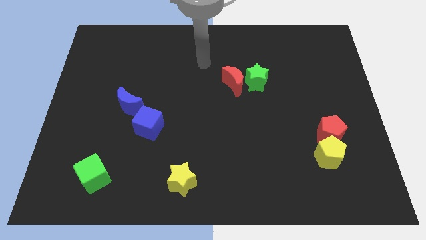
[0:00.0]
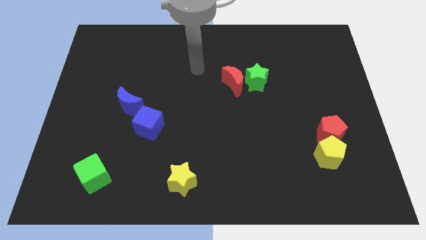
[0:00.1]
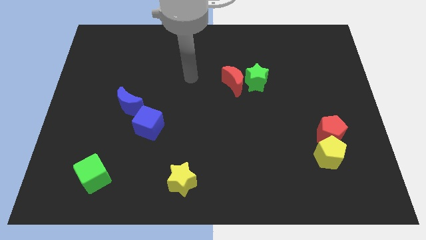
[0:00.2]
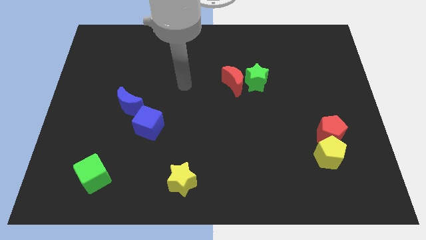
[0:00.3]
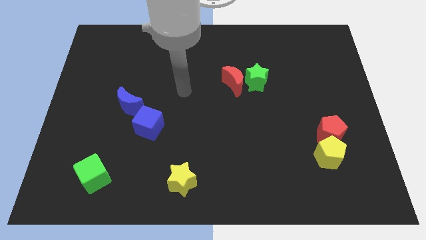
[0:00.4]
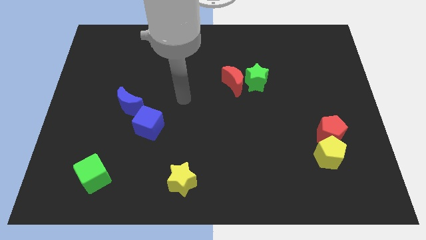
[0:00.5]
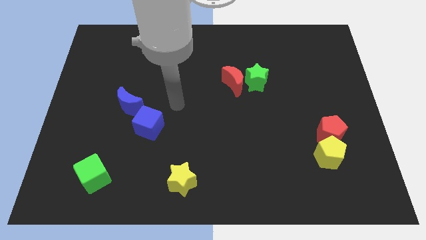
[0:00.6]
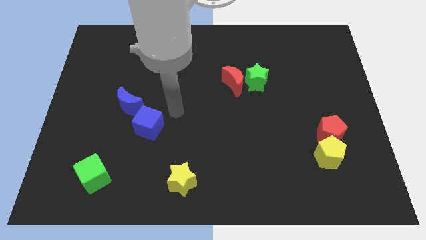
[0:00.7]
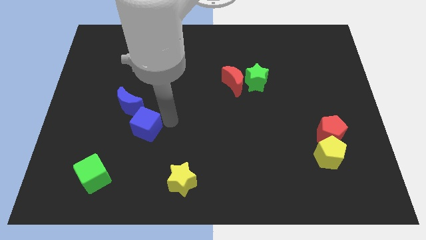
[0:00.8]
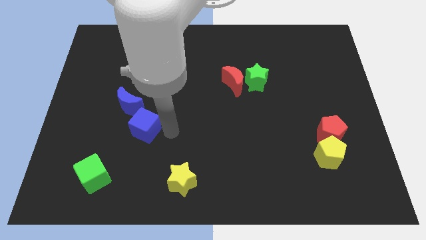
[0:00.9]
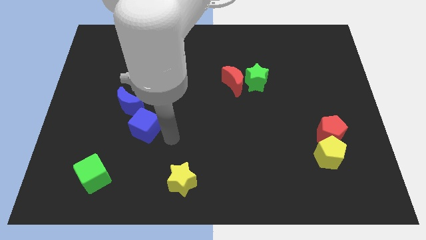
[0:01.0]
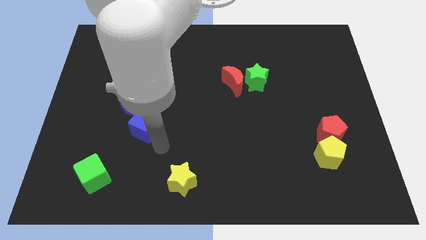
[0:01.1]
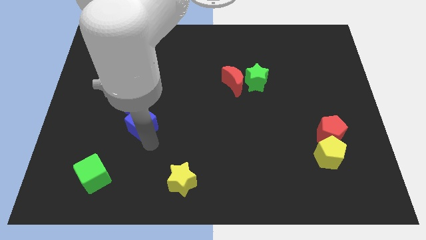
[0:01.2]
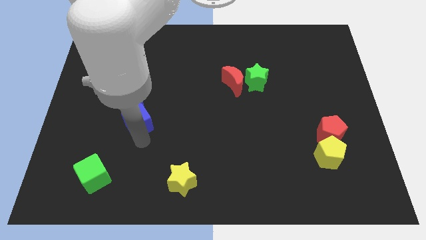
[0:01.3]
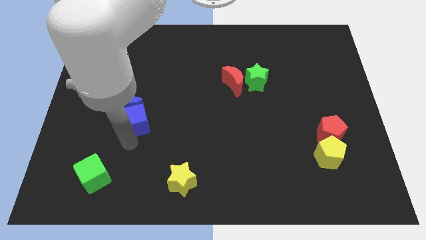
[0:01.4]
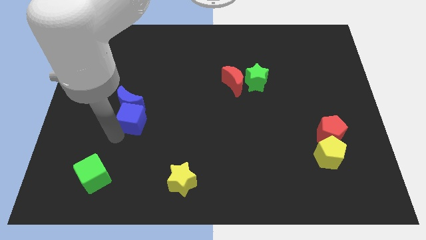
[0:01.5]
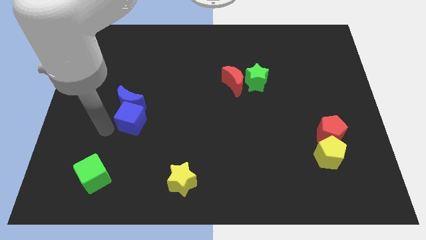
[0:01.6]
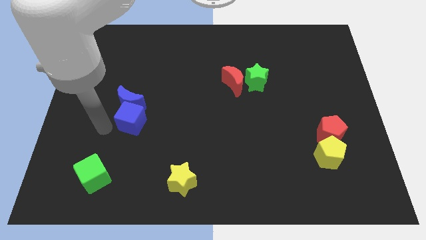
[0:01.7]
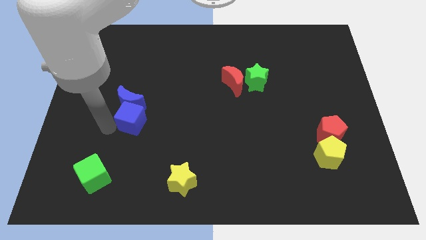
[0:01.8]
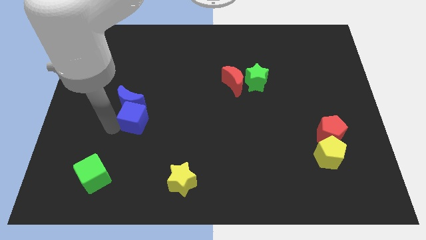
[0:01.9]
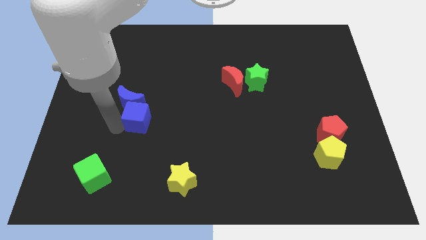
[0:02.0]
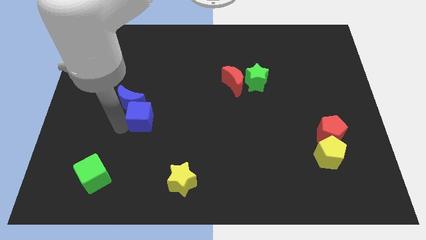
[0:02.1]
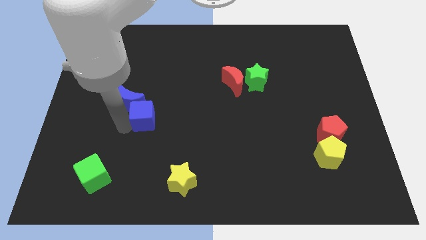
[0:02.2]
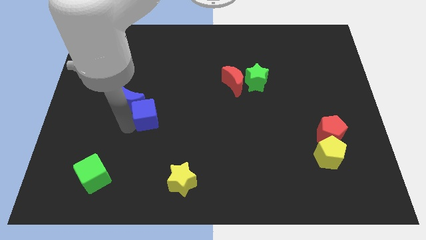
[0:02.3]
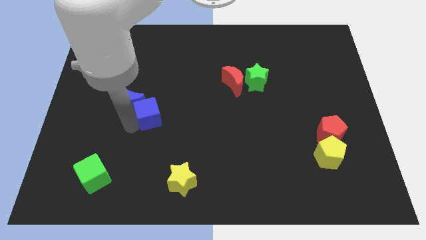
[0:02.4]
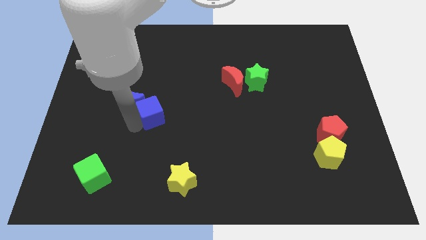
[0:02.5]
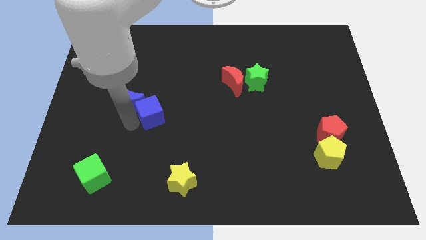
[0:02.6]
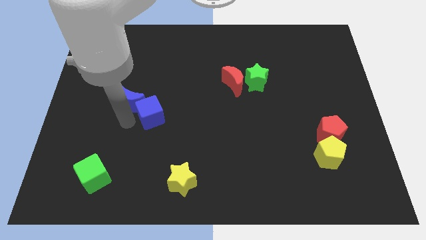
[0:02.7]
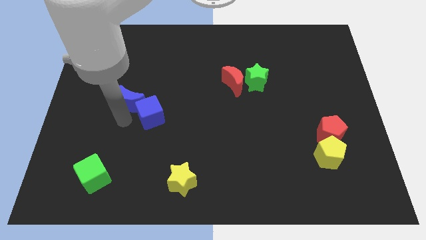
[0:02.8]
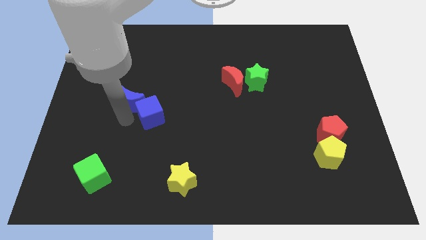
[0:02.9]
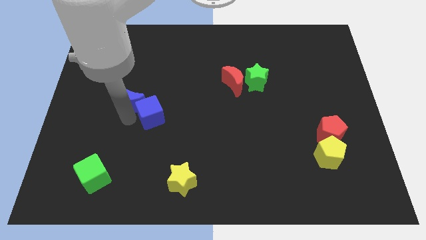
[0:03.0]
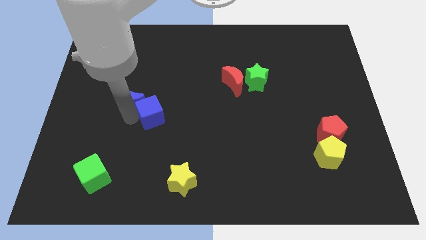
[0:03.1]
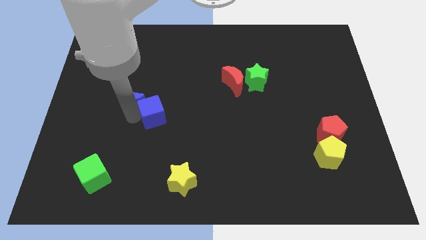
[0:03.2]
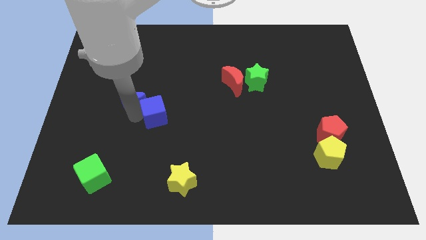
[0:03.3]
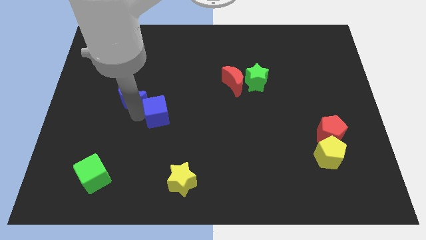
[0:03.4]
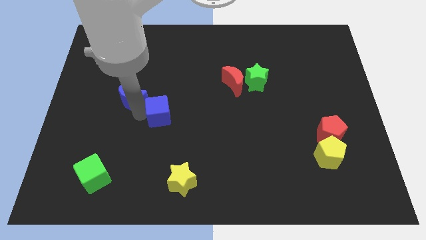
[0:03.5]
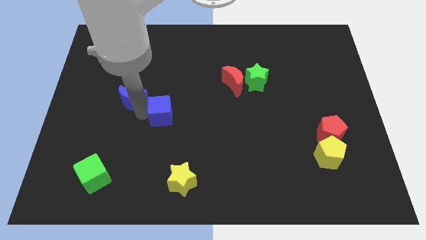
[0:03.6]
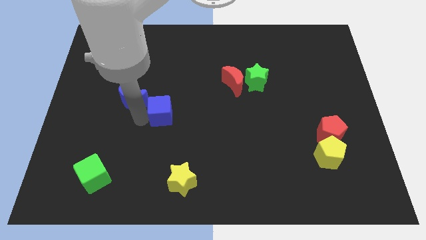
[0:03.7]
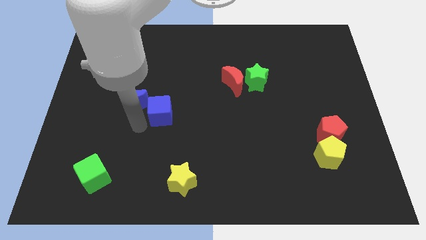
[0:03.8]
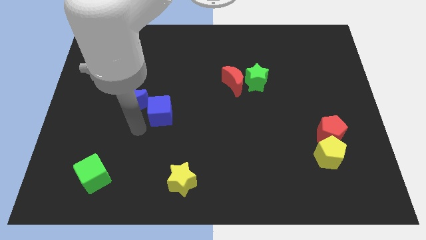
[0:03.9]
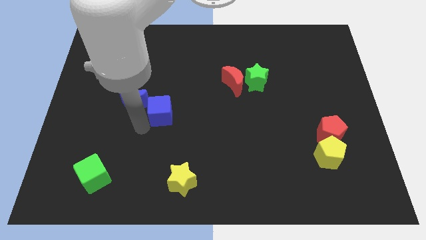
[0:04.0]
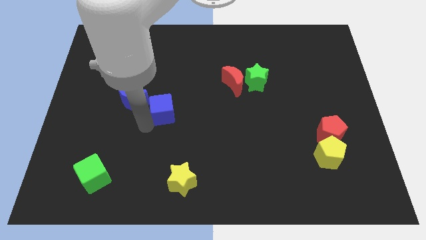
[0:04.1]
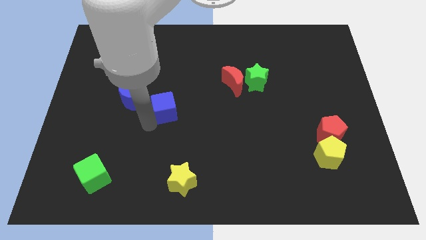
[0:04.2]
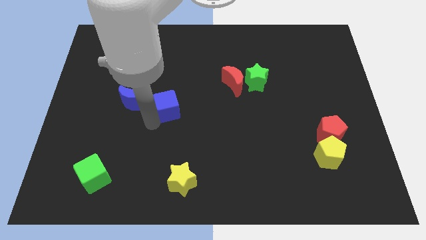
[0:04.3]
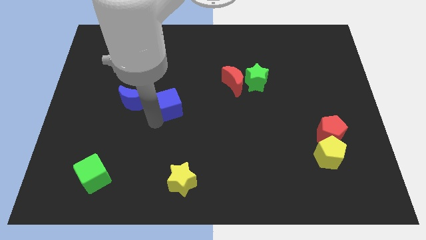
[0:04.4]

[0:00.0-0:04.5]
push the blue cube a little up and right

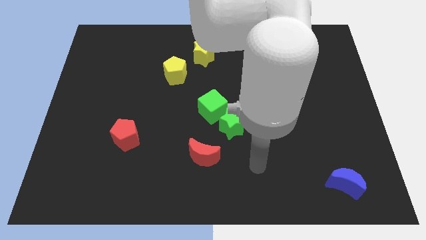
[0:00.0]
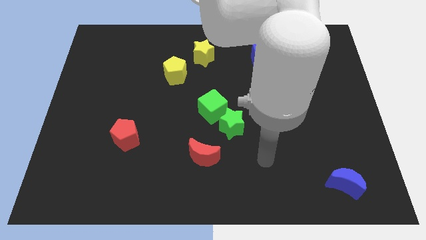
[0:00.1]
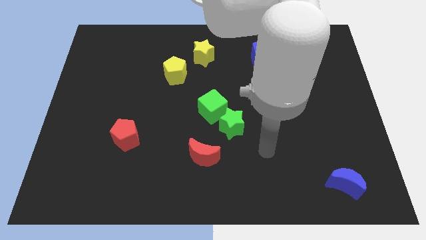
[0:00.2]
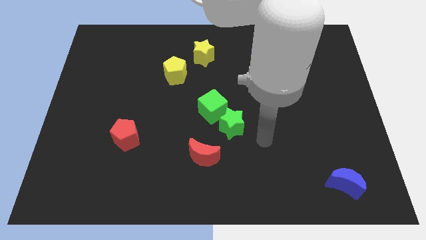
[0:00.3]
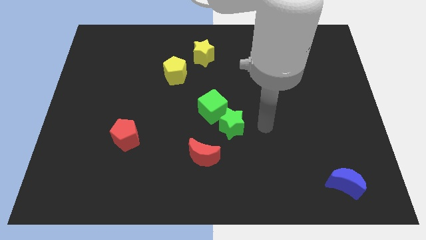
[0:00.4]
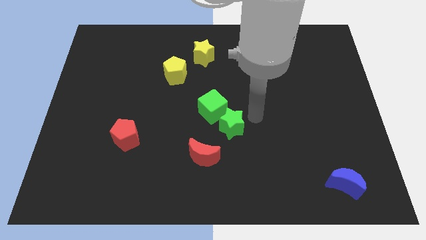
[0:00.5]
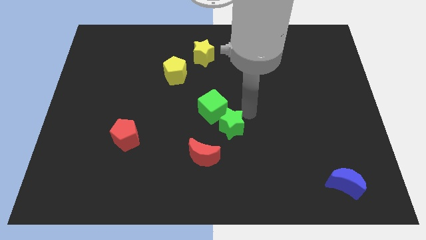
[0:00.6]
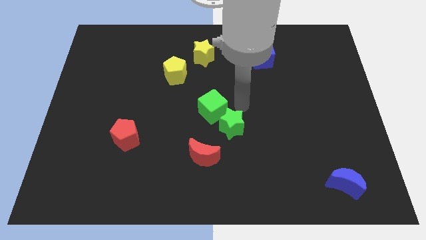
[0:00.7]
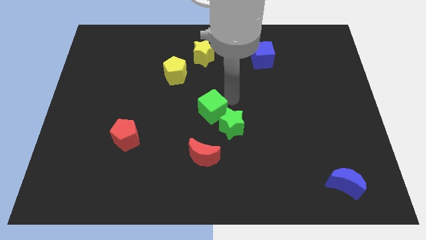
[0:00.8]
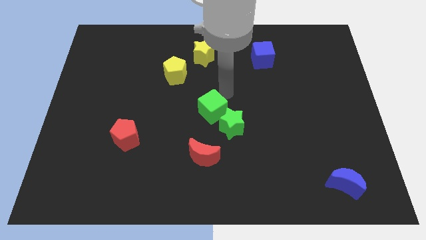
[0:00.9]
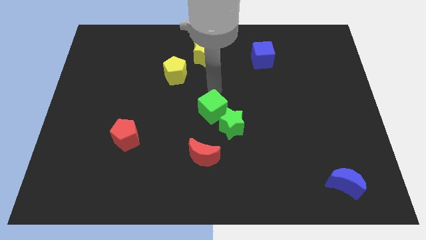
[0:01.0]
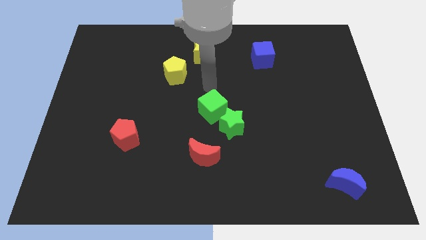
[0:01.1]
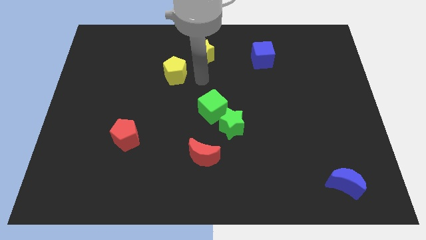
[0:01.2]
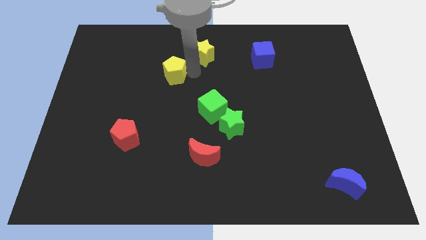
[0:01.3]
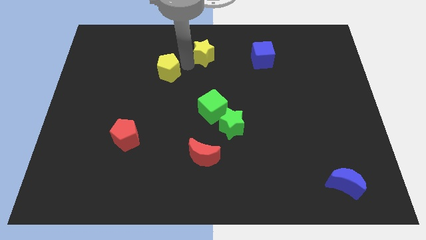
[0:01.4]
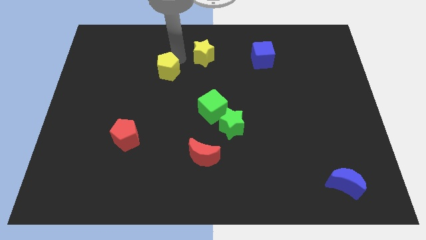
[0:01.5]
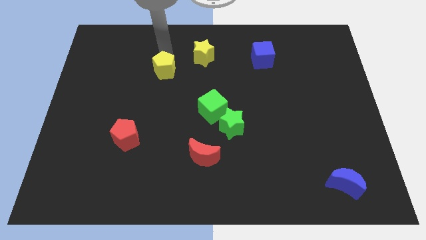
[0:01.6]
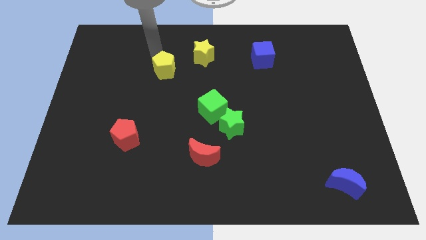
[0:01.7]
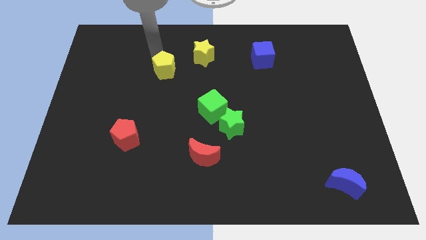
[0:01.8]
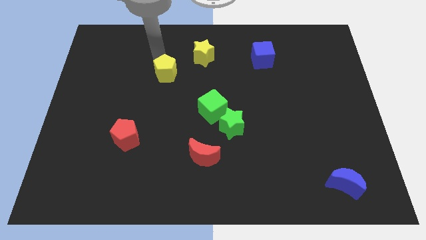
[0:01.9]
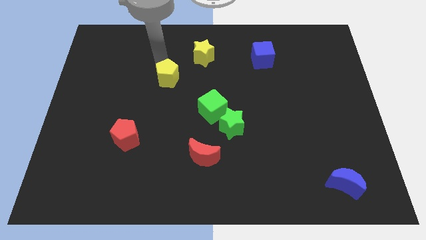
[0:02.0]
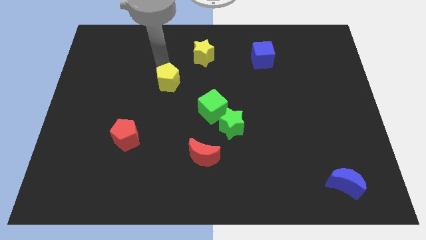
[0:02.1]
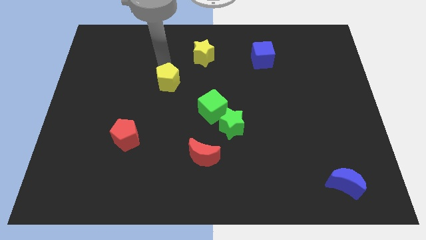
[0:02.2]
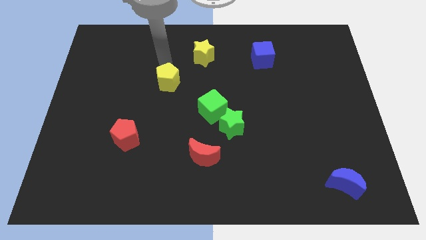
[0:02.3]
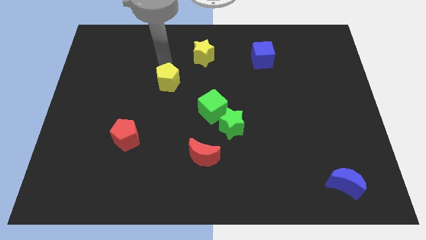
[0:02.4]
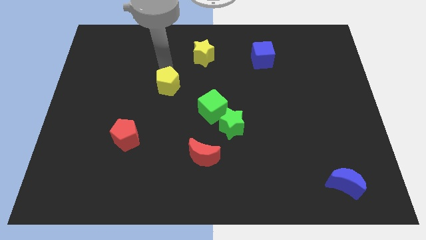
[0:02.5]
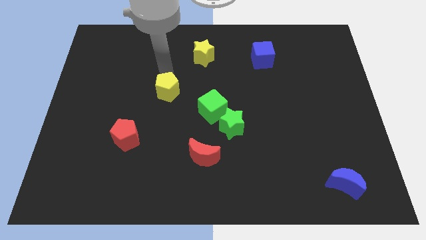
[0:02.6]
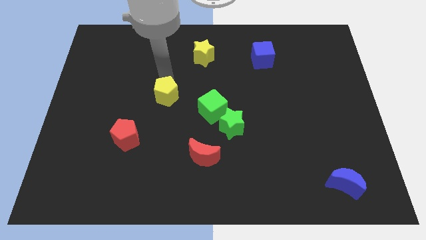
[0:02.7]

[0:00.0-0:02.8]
slide the yellow pentagon down a little

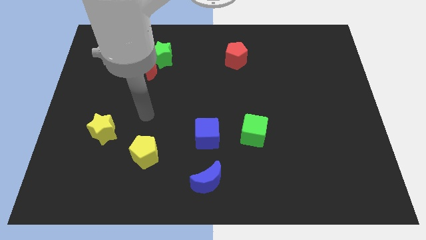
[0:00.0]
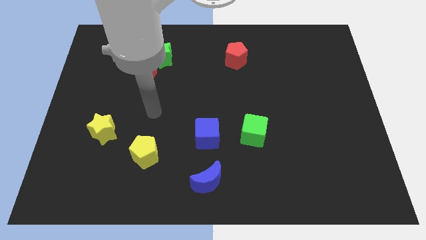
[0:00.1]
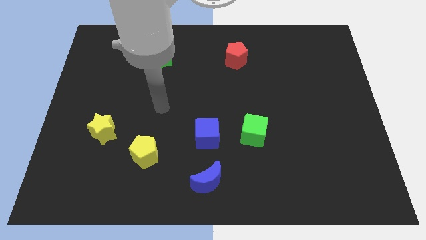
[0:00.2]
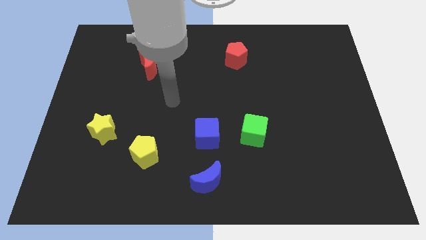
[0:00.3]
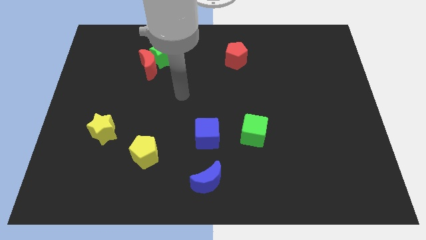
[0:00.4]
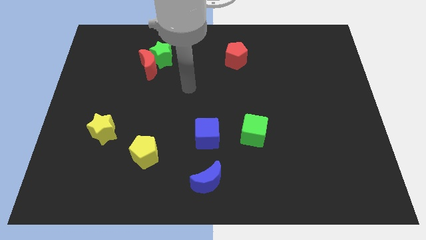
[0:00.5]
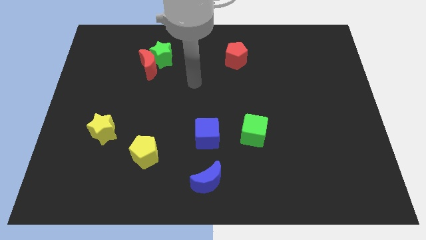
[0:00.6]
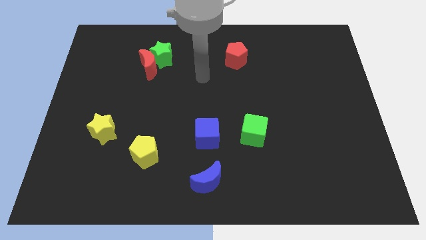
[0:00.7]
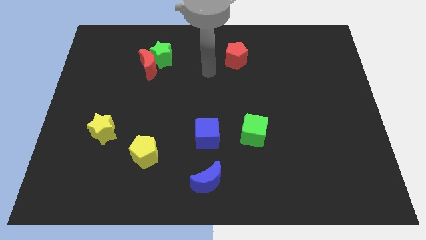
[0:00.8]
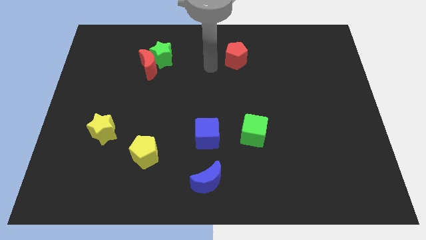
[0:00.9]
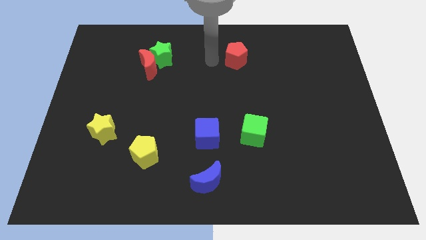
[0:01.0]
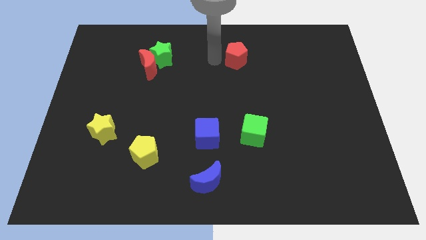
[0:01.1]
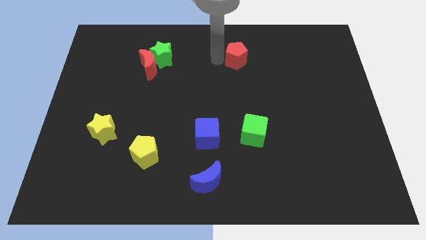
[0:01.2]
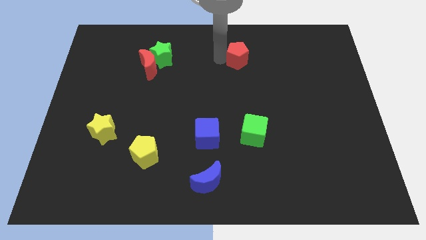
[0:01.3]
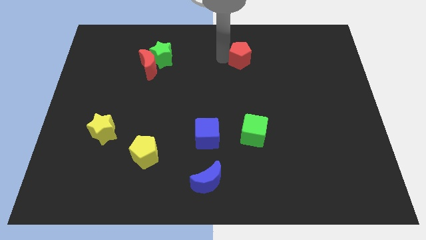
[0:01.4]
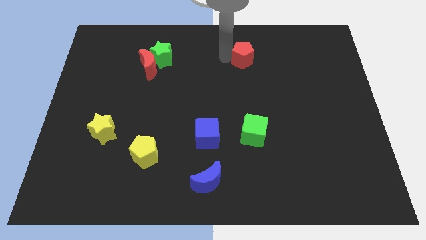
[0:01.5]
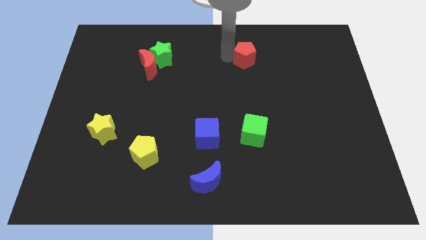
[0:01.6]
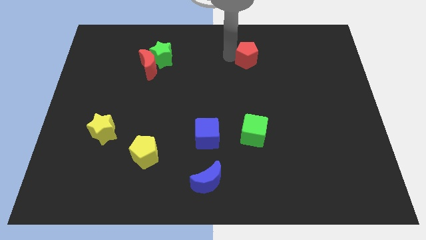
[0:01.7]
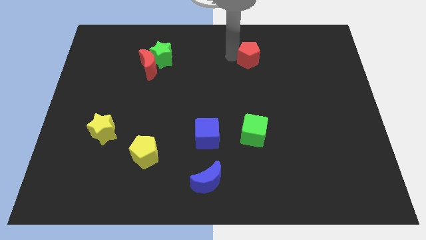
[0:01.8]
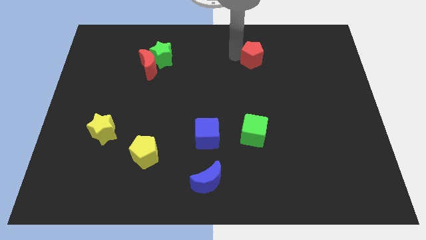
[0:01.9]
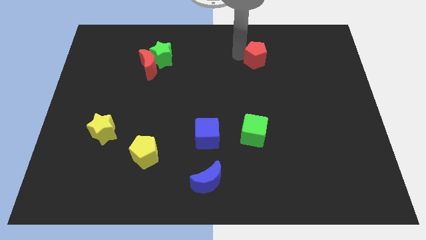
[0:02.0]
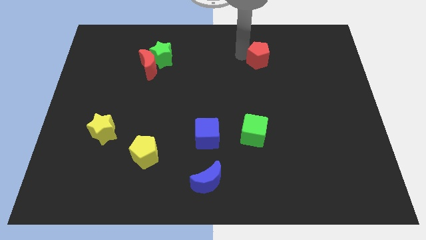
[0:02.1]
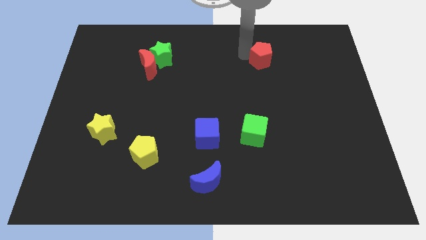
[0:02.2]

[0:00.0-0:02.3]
push the red pentagon to the right a little
